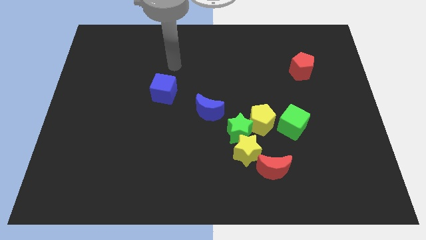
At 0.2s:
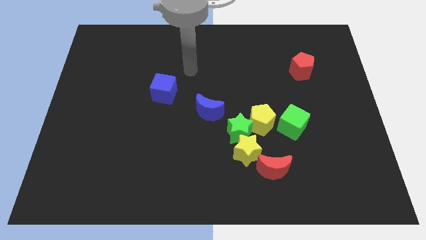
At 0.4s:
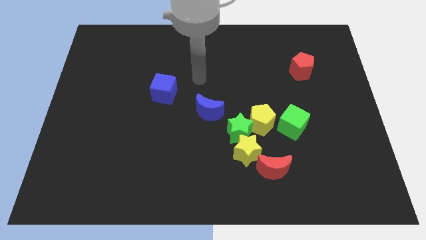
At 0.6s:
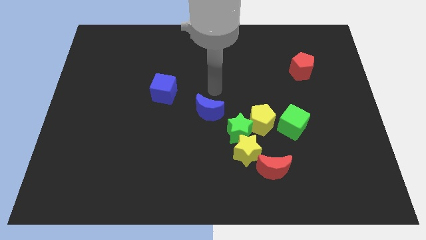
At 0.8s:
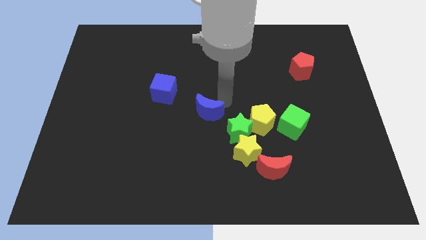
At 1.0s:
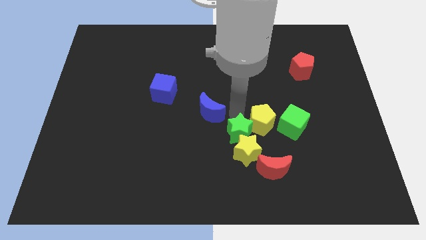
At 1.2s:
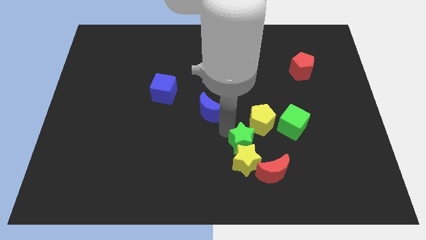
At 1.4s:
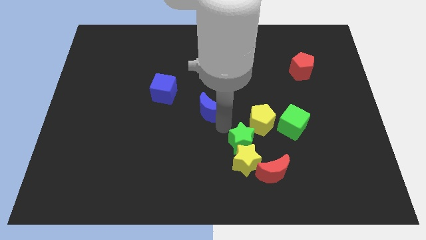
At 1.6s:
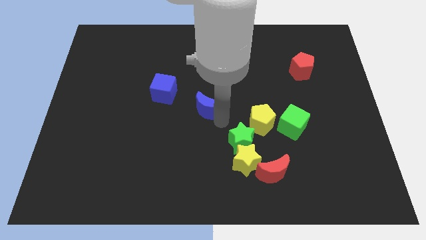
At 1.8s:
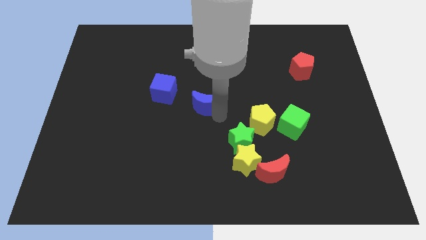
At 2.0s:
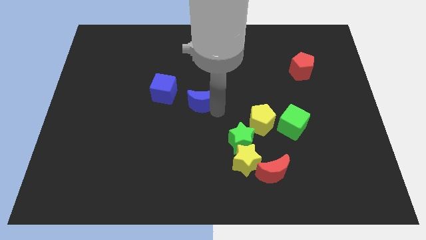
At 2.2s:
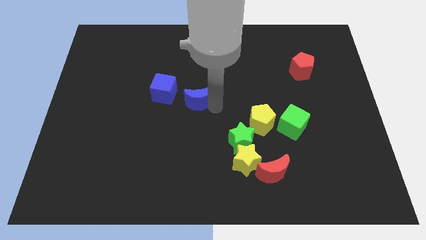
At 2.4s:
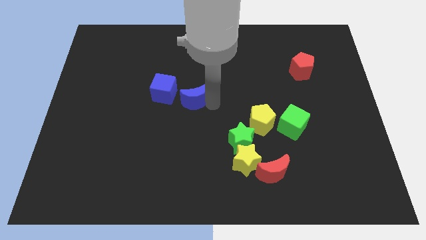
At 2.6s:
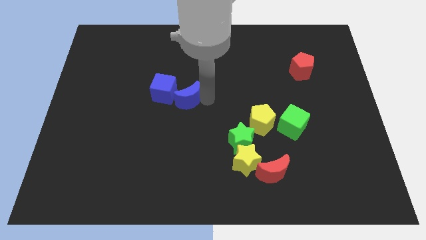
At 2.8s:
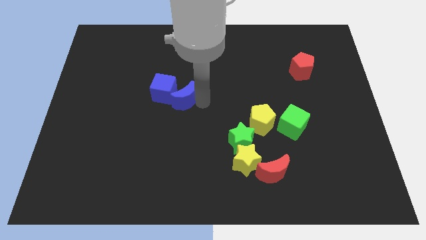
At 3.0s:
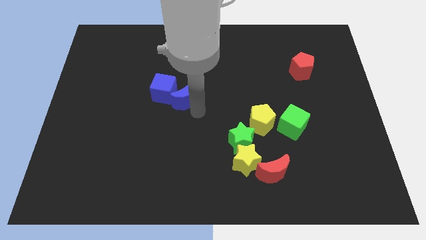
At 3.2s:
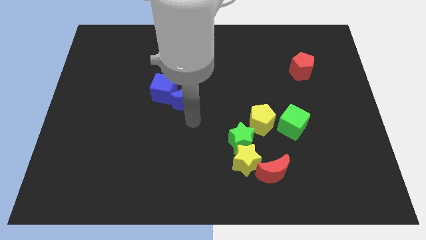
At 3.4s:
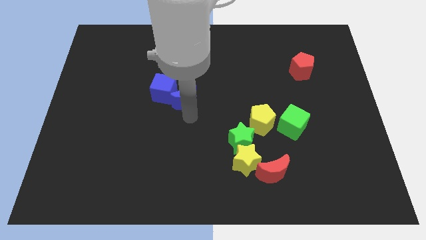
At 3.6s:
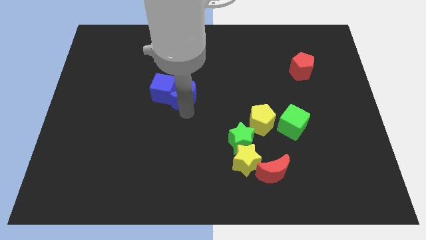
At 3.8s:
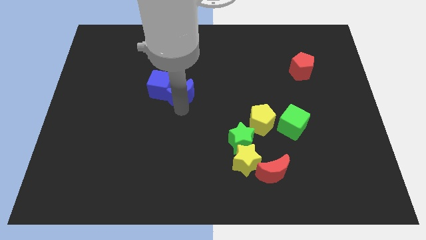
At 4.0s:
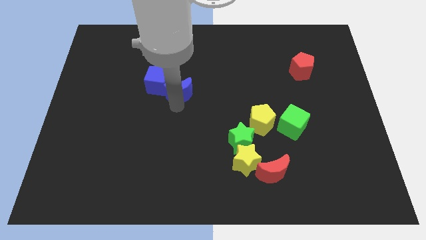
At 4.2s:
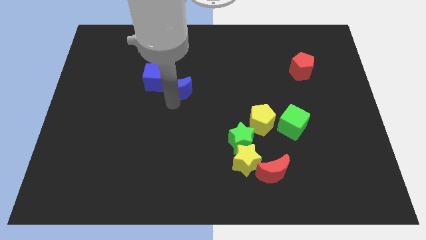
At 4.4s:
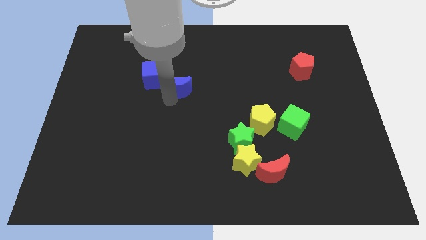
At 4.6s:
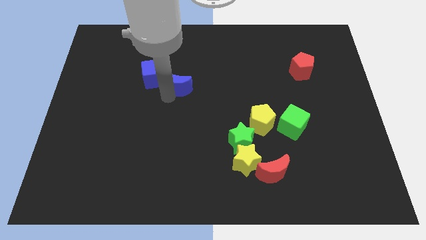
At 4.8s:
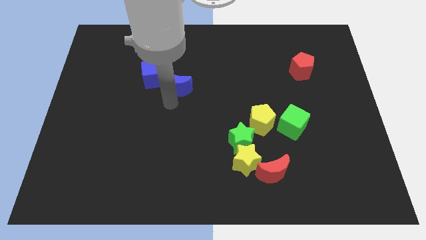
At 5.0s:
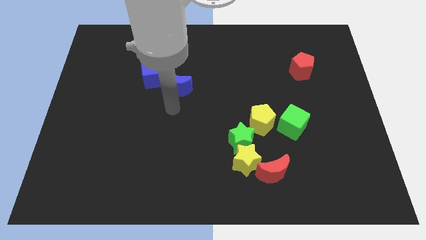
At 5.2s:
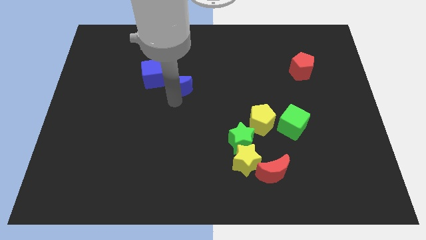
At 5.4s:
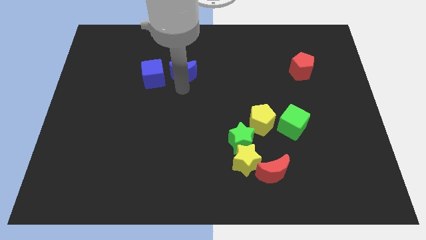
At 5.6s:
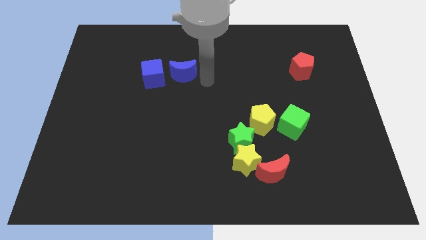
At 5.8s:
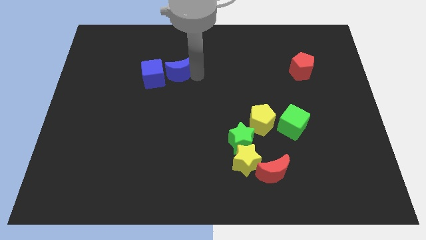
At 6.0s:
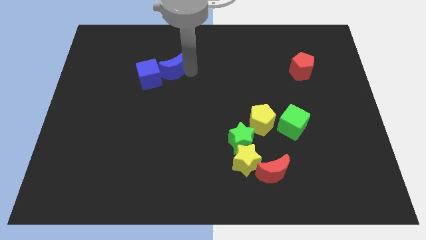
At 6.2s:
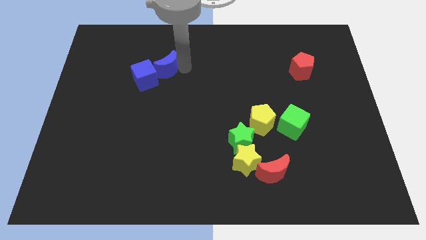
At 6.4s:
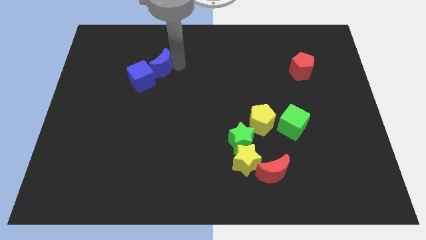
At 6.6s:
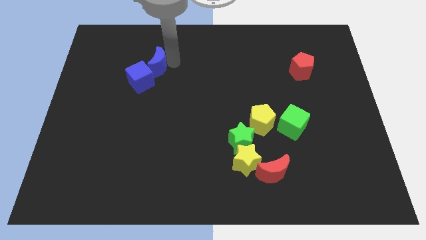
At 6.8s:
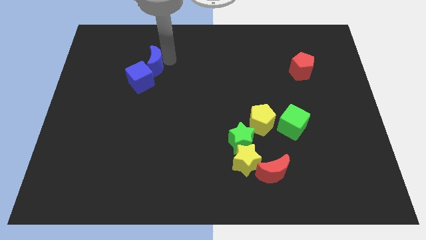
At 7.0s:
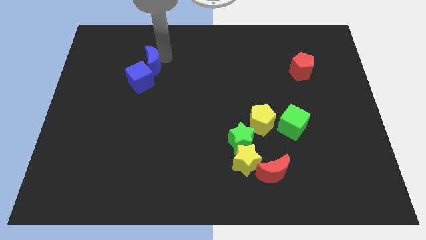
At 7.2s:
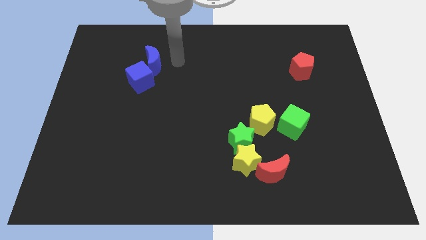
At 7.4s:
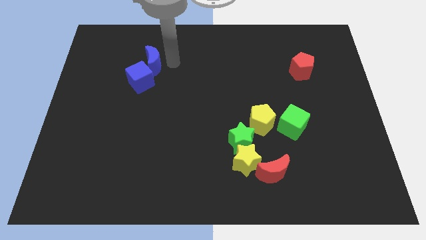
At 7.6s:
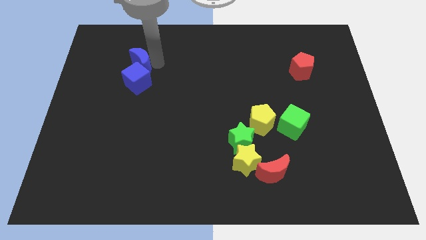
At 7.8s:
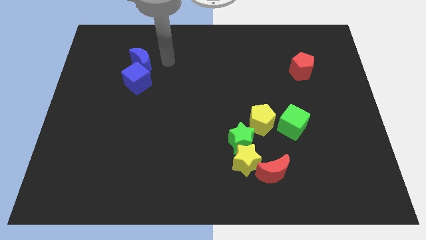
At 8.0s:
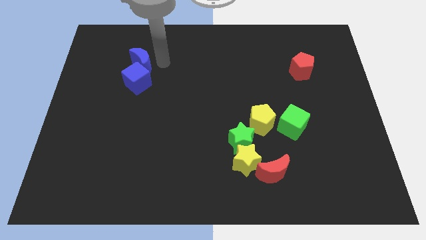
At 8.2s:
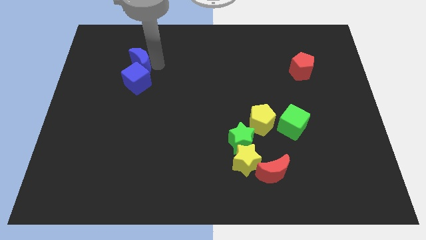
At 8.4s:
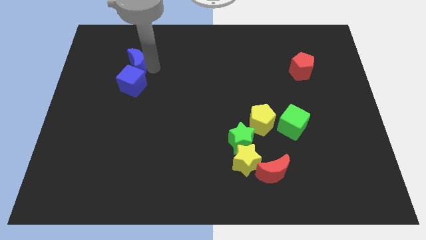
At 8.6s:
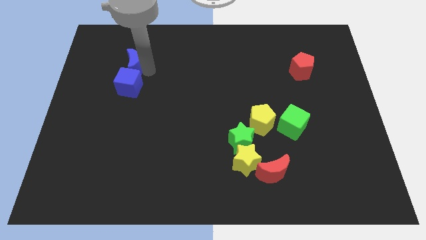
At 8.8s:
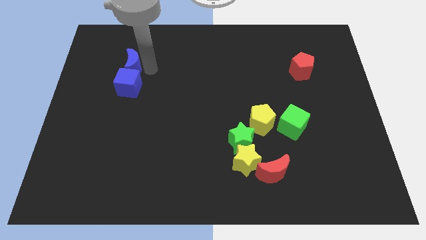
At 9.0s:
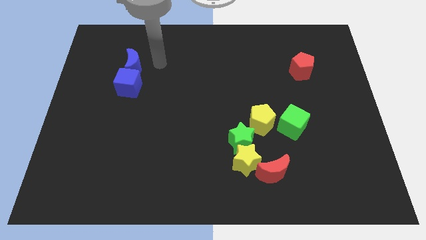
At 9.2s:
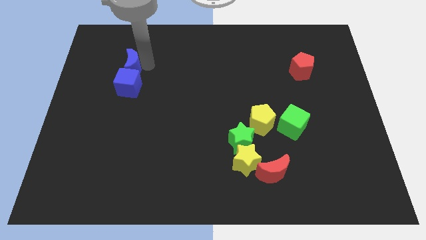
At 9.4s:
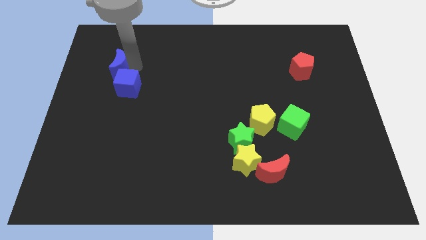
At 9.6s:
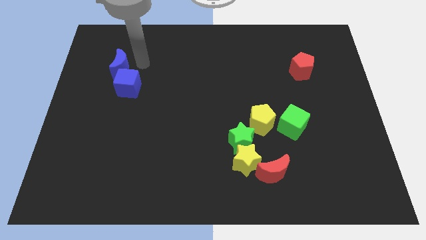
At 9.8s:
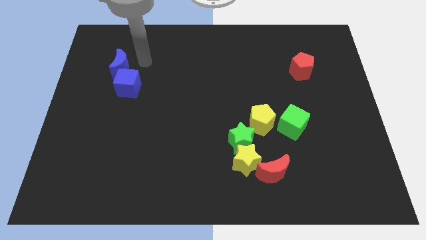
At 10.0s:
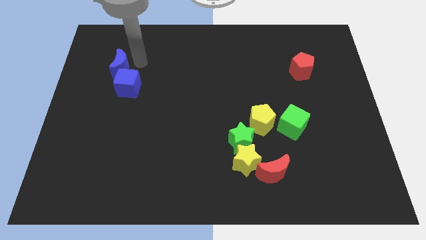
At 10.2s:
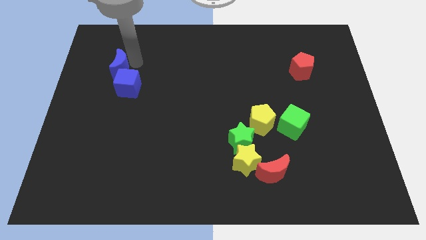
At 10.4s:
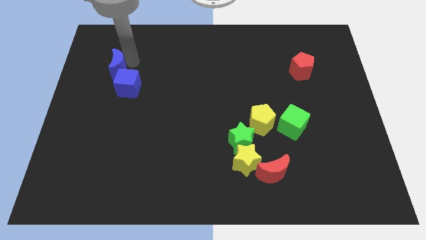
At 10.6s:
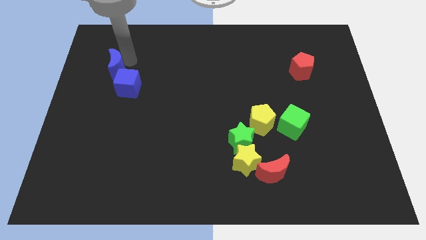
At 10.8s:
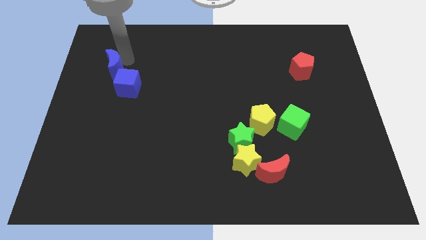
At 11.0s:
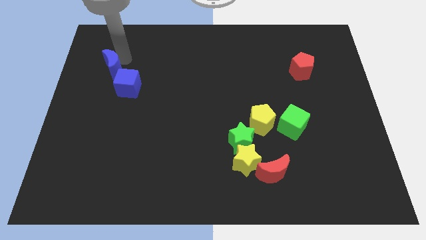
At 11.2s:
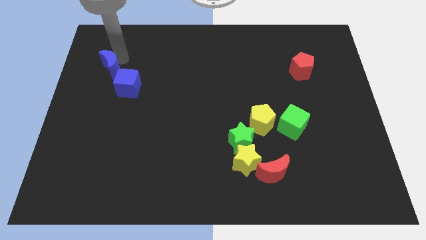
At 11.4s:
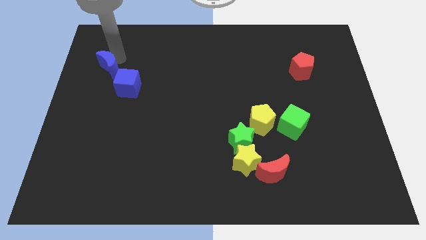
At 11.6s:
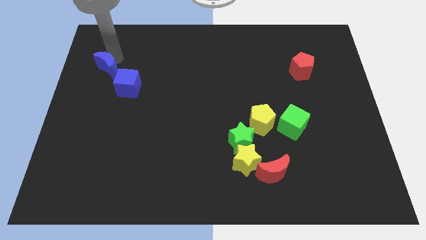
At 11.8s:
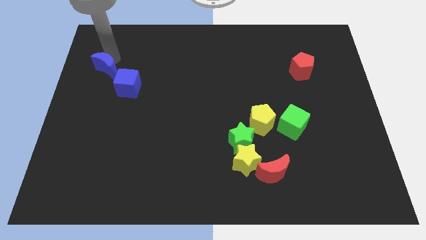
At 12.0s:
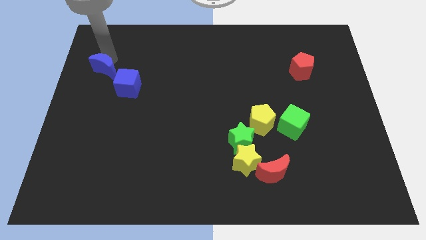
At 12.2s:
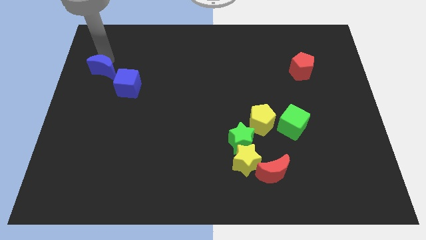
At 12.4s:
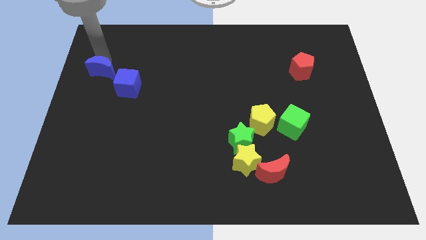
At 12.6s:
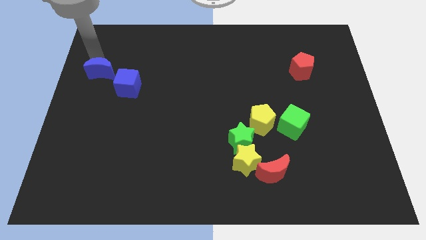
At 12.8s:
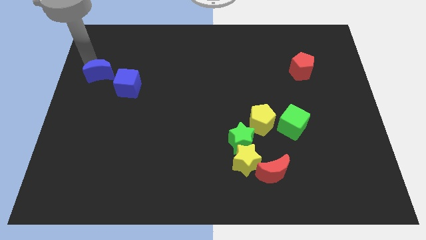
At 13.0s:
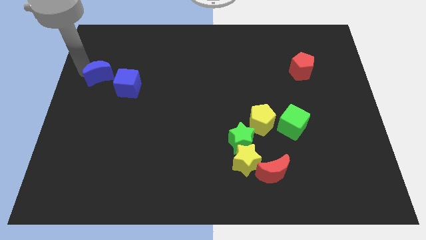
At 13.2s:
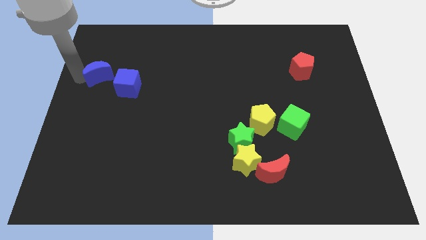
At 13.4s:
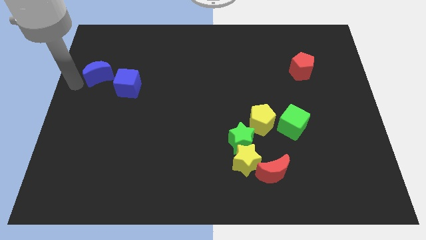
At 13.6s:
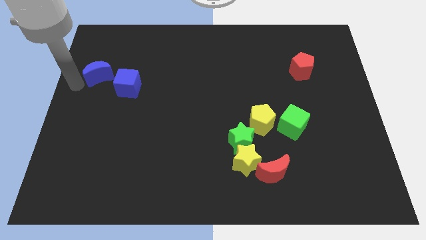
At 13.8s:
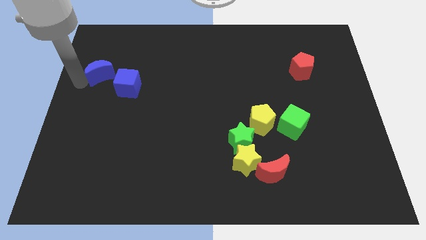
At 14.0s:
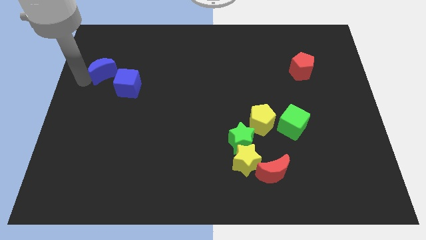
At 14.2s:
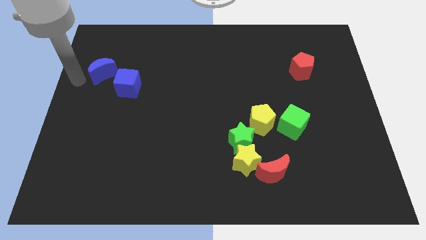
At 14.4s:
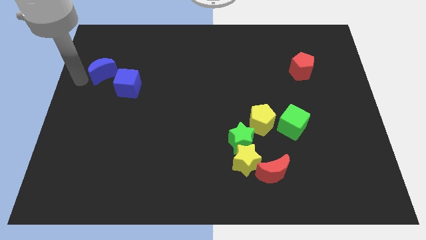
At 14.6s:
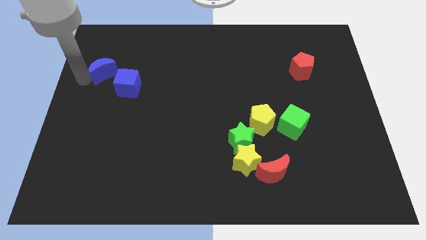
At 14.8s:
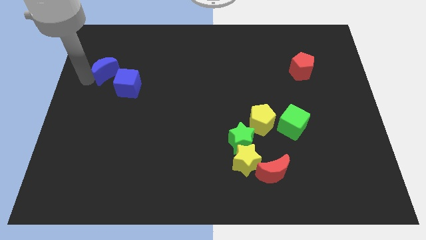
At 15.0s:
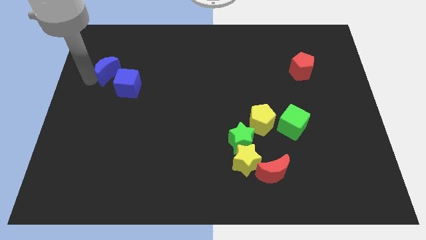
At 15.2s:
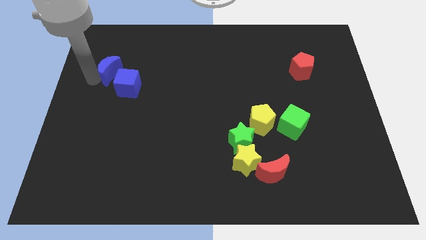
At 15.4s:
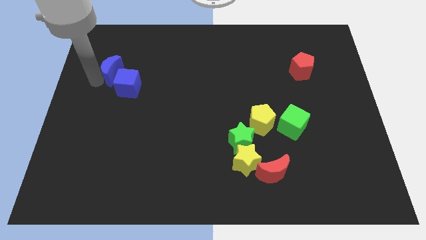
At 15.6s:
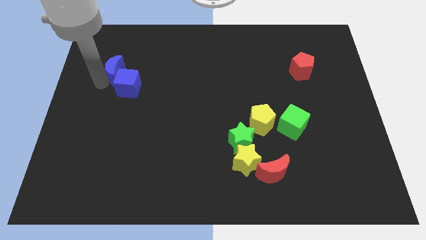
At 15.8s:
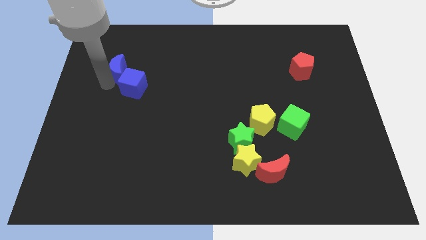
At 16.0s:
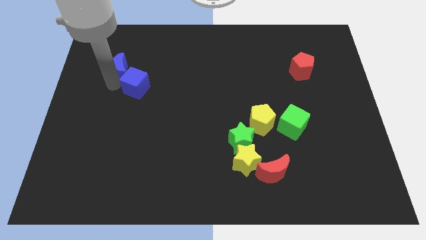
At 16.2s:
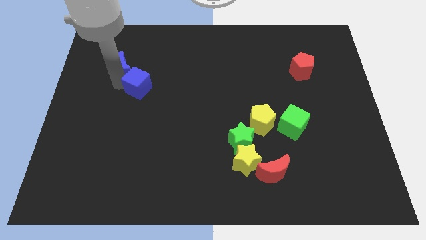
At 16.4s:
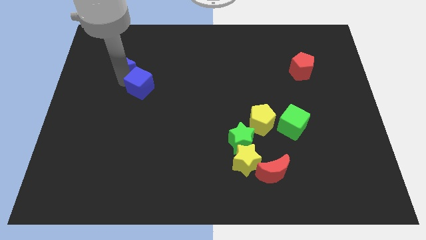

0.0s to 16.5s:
push the blue moon to the top left of the blue cube
